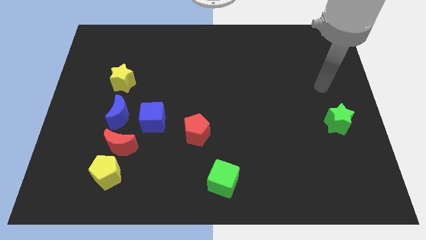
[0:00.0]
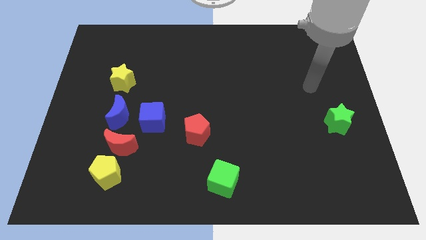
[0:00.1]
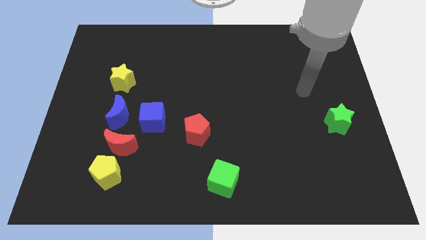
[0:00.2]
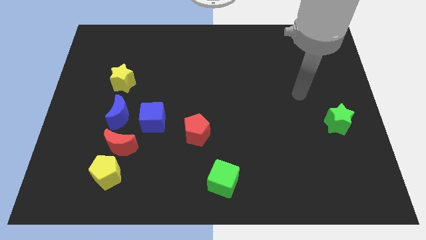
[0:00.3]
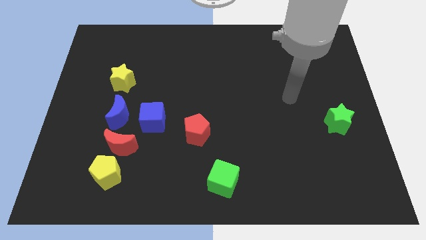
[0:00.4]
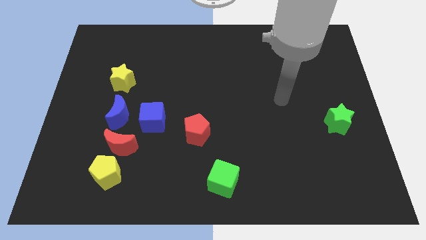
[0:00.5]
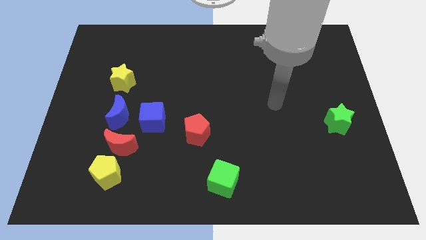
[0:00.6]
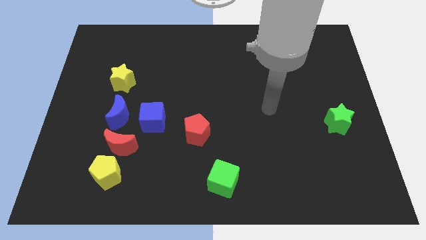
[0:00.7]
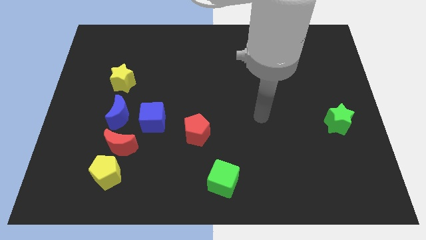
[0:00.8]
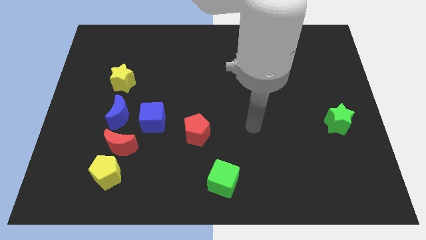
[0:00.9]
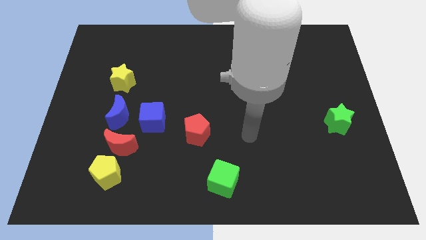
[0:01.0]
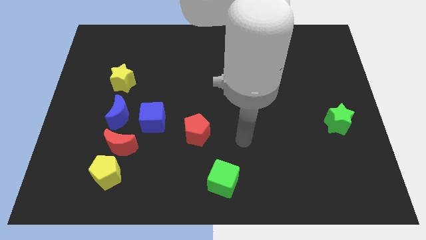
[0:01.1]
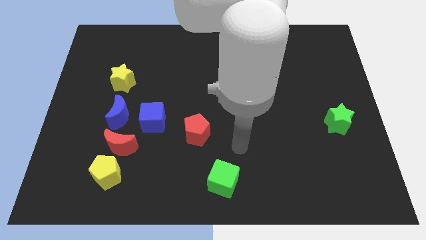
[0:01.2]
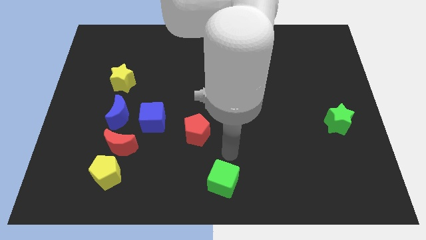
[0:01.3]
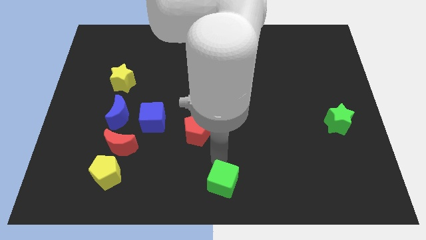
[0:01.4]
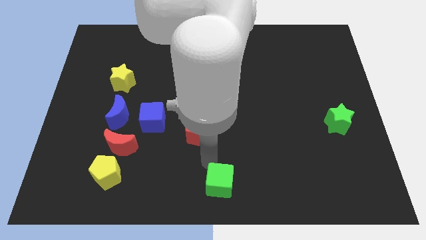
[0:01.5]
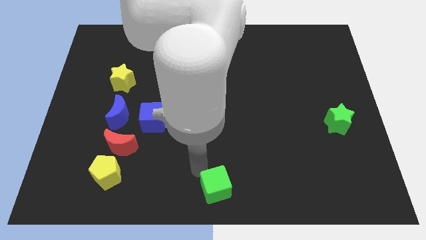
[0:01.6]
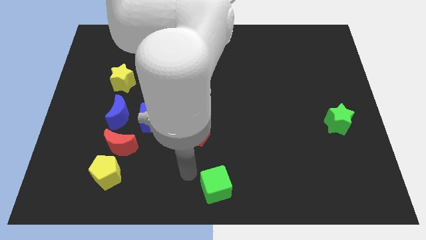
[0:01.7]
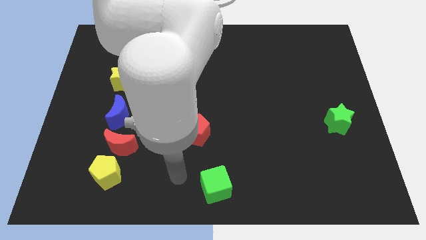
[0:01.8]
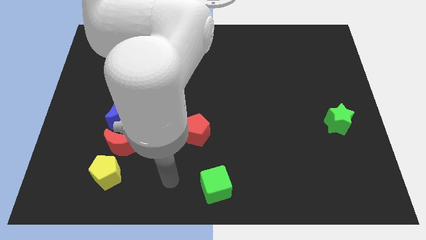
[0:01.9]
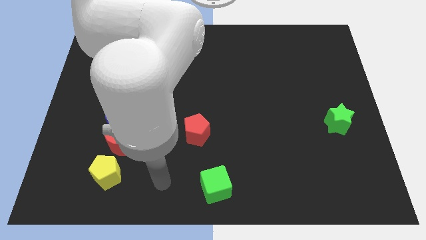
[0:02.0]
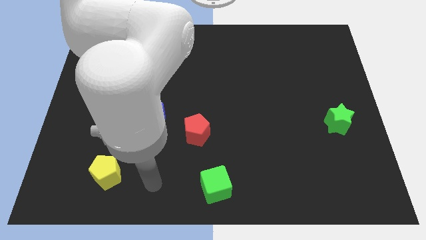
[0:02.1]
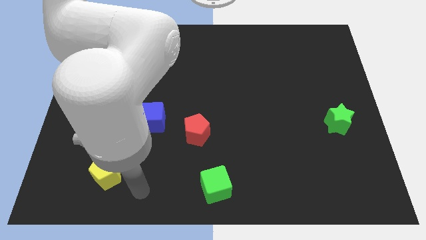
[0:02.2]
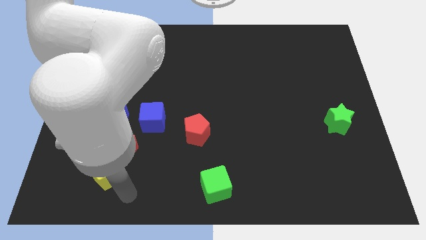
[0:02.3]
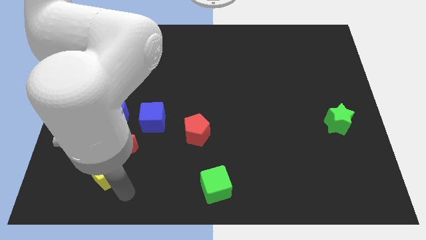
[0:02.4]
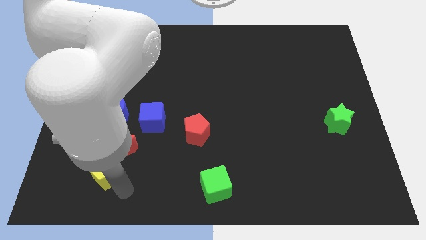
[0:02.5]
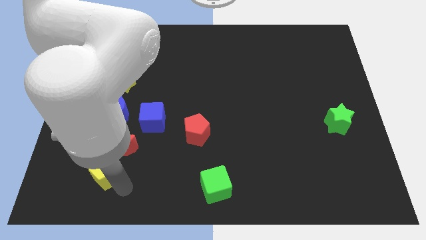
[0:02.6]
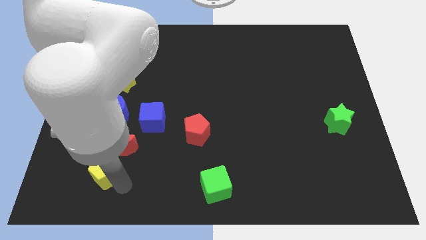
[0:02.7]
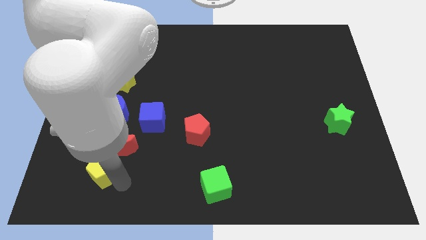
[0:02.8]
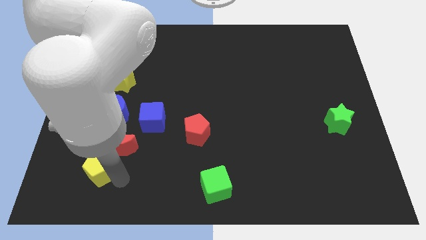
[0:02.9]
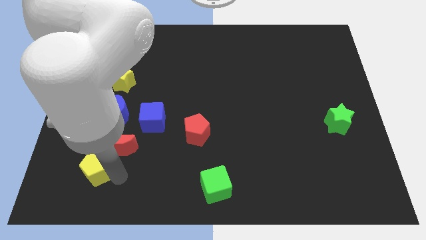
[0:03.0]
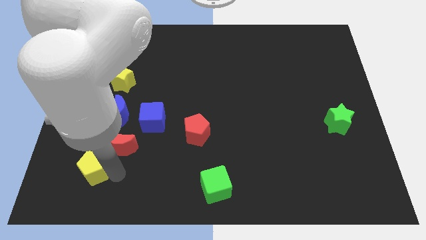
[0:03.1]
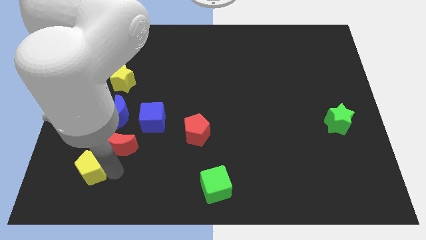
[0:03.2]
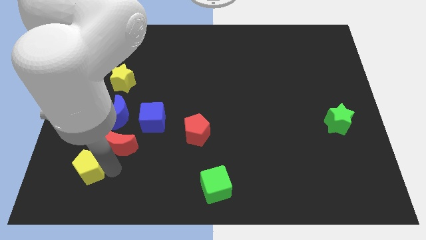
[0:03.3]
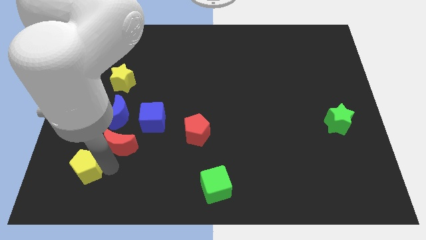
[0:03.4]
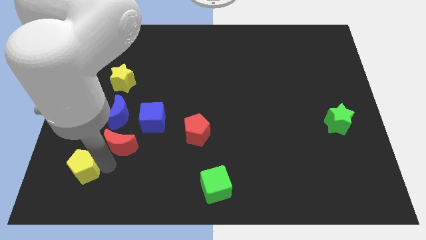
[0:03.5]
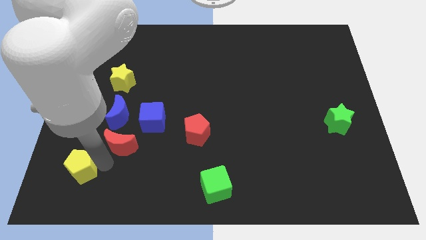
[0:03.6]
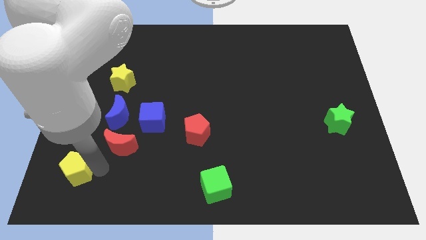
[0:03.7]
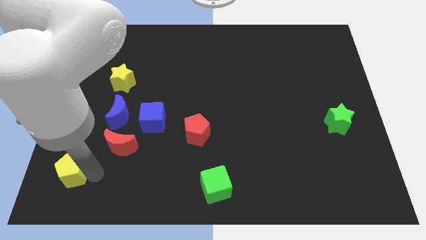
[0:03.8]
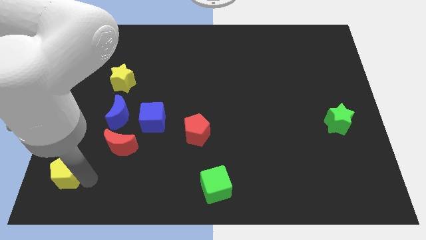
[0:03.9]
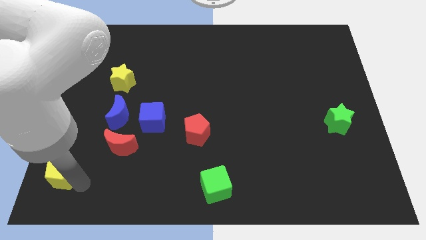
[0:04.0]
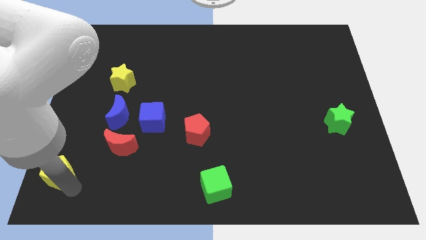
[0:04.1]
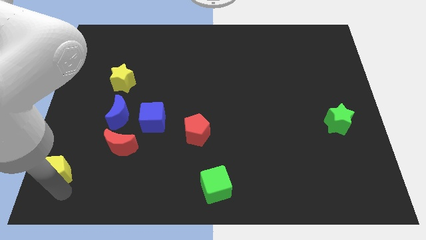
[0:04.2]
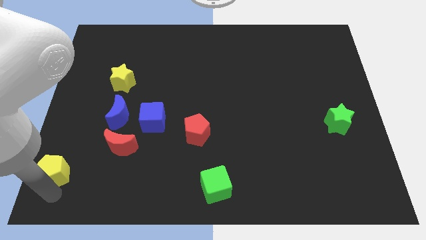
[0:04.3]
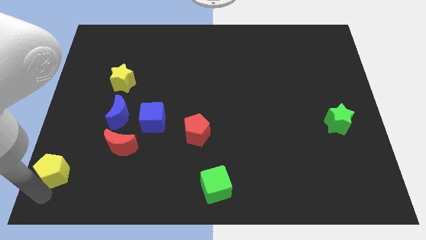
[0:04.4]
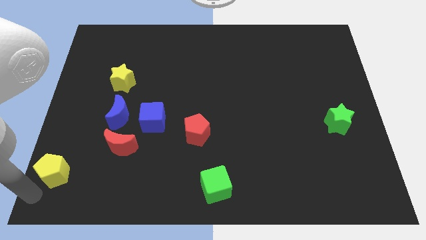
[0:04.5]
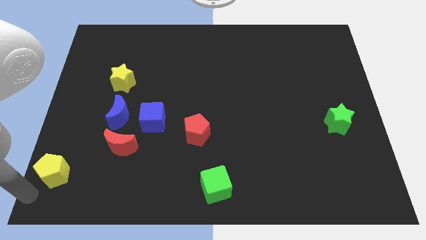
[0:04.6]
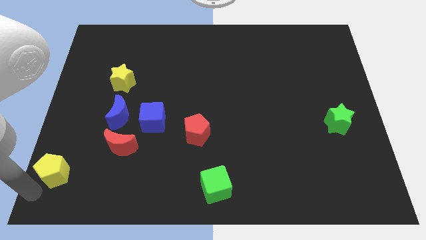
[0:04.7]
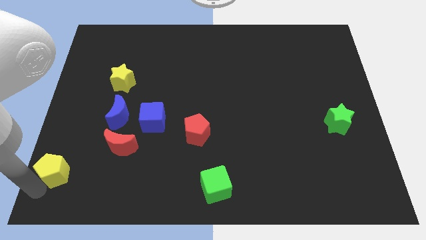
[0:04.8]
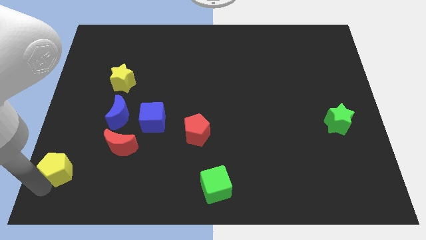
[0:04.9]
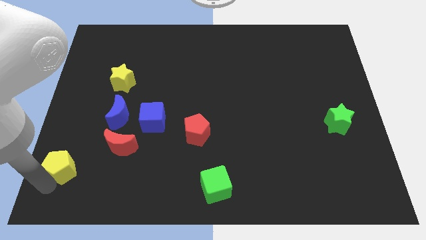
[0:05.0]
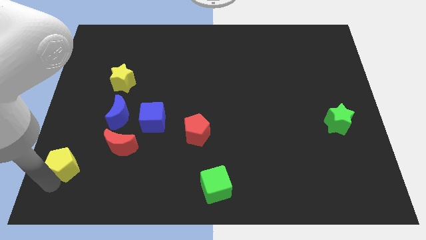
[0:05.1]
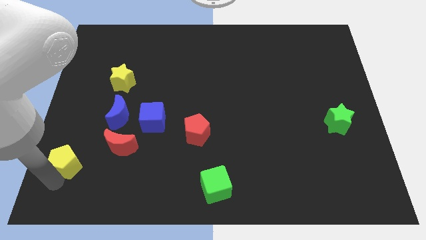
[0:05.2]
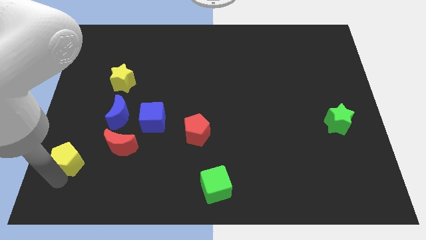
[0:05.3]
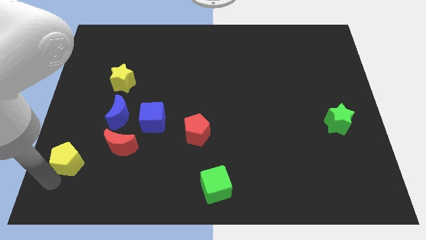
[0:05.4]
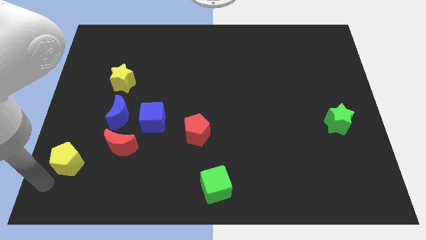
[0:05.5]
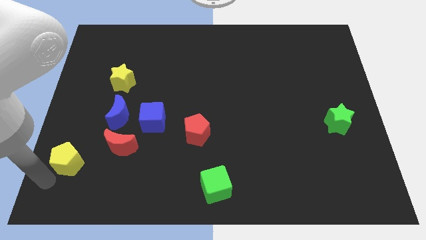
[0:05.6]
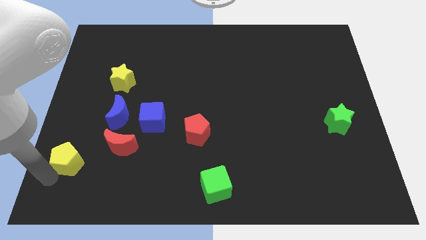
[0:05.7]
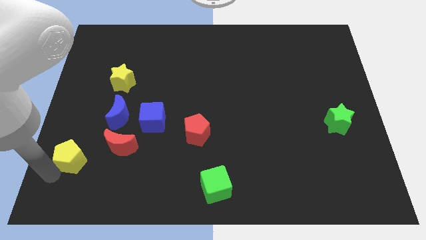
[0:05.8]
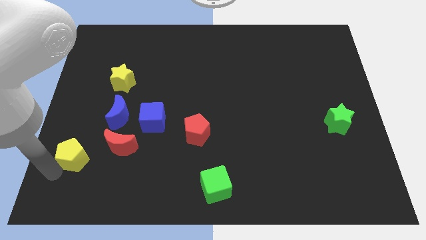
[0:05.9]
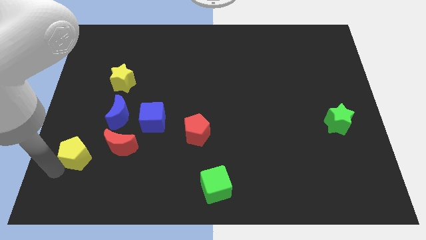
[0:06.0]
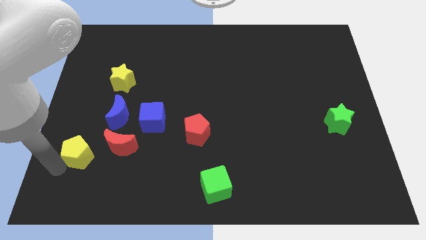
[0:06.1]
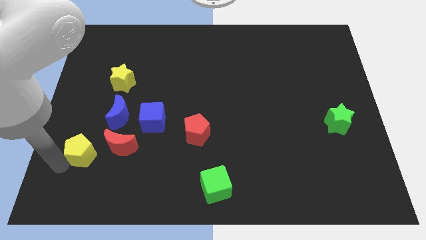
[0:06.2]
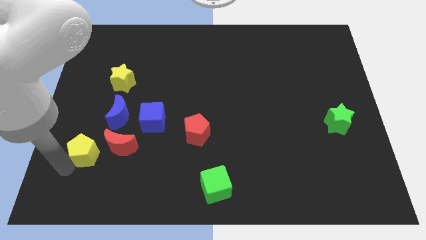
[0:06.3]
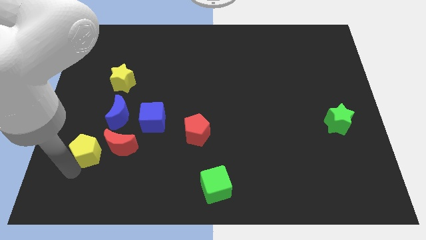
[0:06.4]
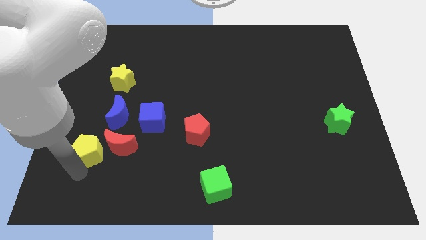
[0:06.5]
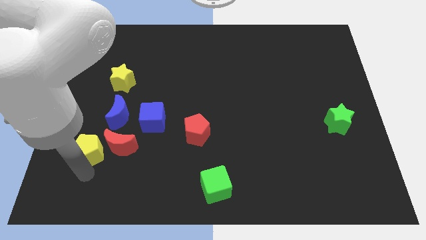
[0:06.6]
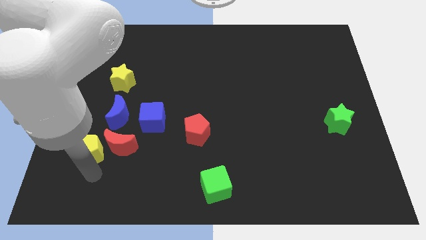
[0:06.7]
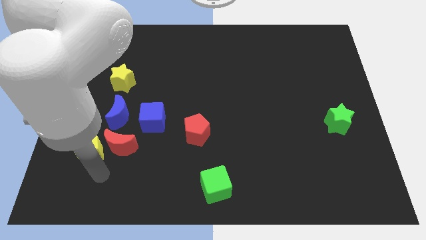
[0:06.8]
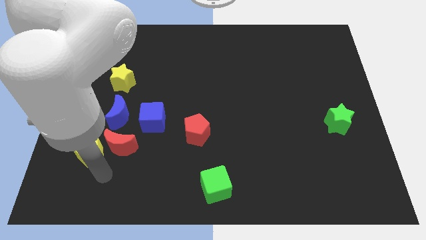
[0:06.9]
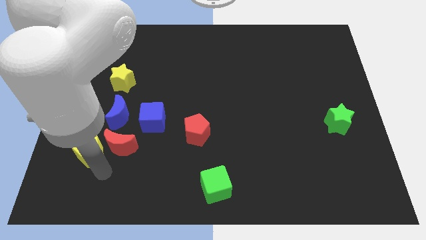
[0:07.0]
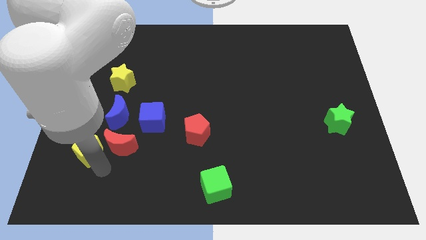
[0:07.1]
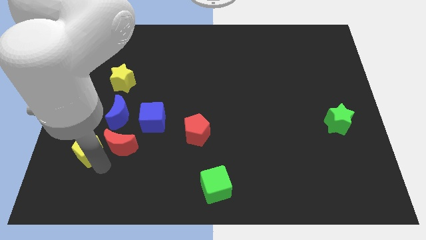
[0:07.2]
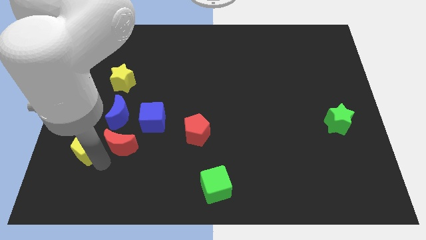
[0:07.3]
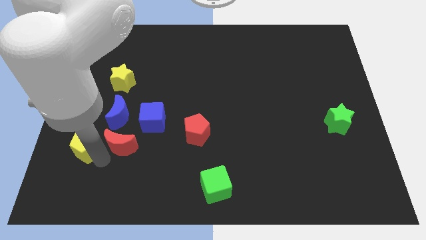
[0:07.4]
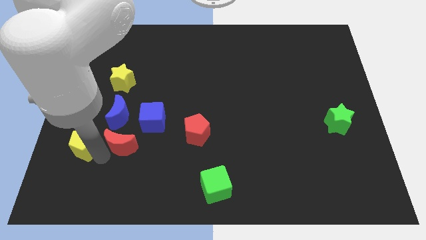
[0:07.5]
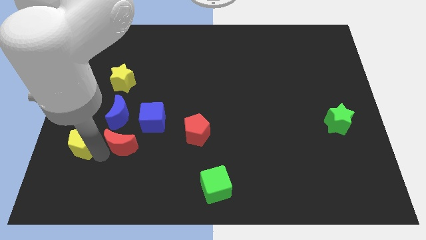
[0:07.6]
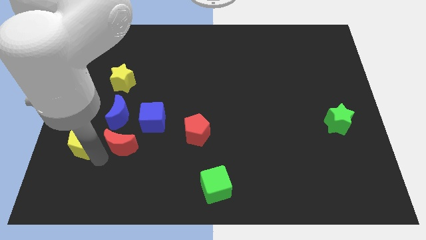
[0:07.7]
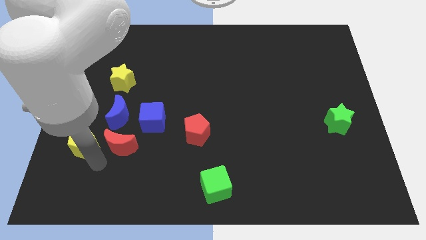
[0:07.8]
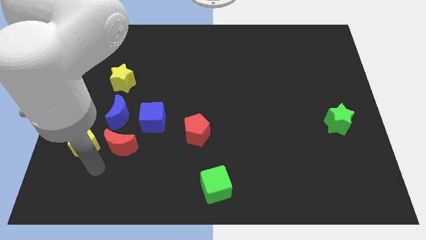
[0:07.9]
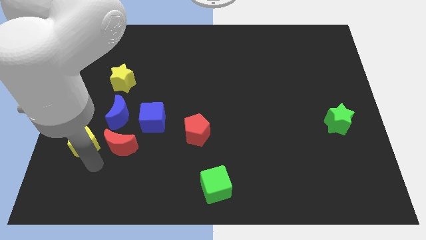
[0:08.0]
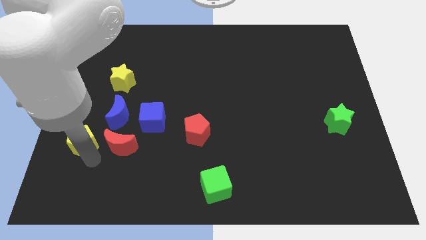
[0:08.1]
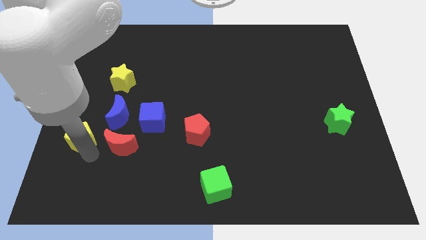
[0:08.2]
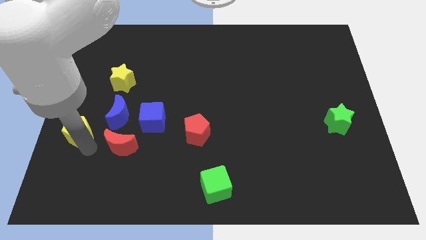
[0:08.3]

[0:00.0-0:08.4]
push the yellow pentagon to the left side
